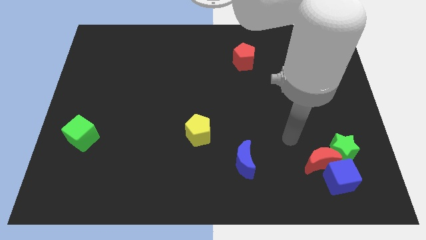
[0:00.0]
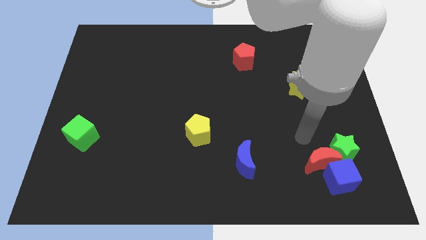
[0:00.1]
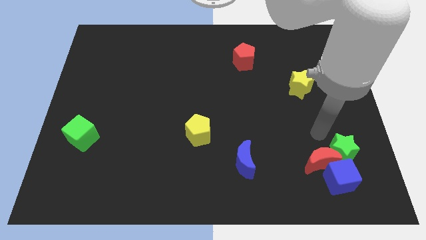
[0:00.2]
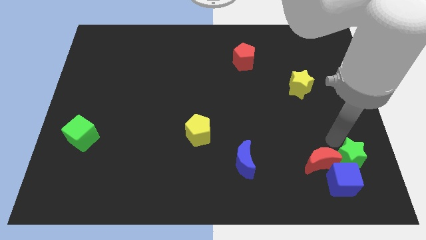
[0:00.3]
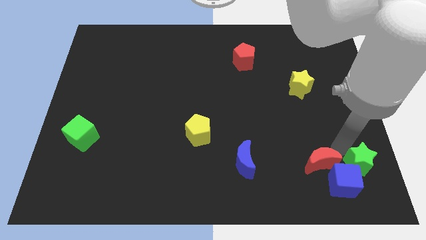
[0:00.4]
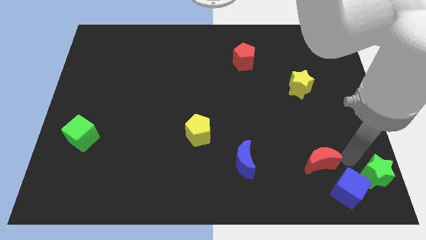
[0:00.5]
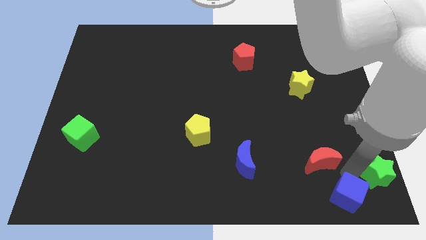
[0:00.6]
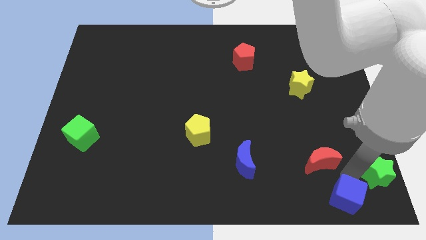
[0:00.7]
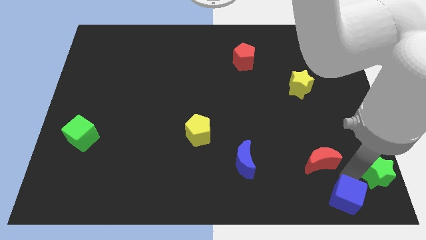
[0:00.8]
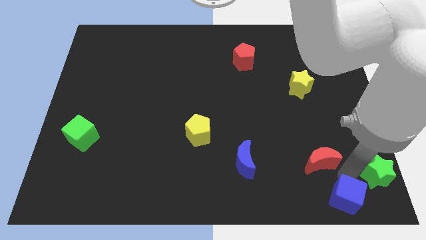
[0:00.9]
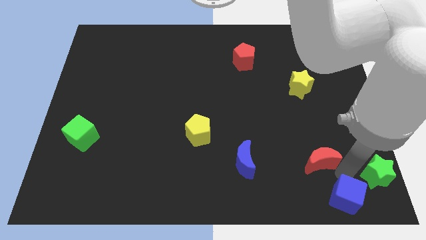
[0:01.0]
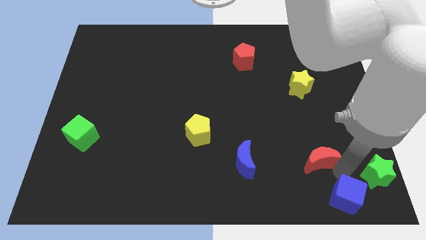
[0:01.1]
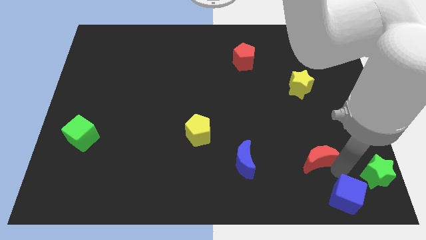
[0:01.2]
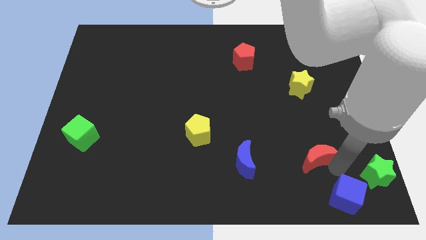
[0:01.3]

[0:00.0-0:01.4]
separate the red moon from the blue cube and green star

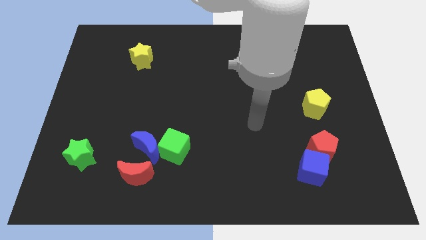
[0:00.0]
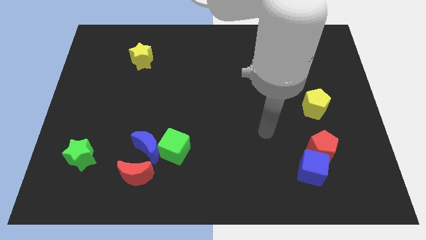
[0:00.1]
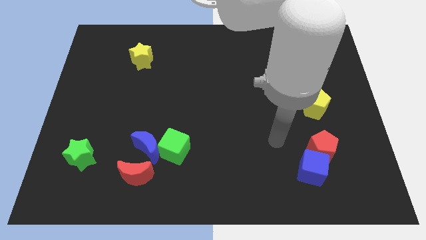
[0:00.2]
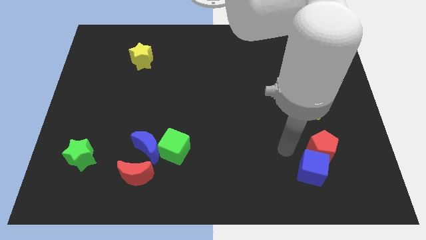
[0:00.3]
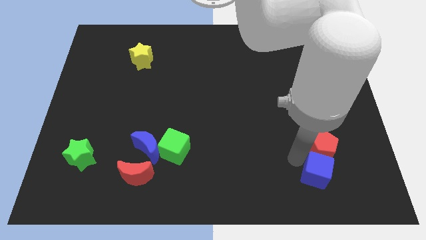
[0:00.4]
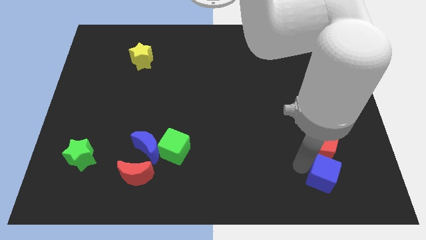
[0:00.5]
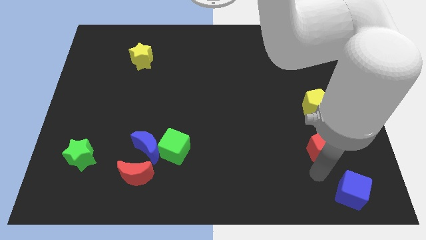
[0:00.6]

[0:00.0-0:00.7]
move the red pentagon away from the blue cube

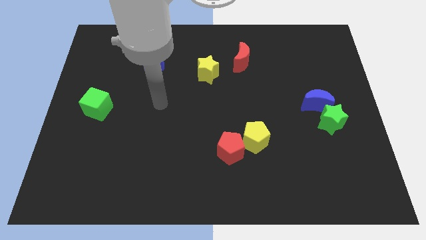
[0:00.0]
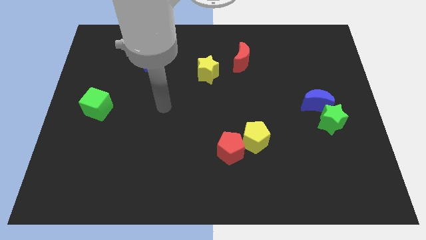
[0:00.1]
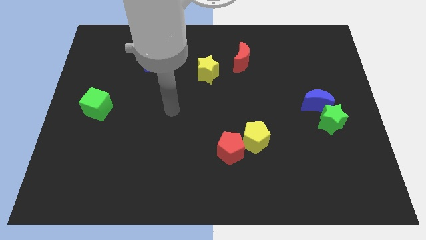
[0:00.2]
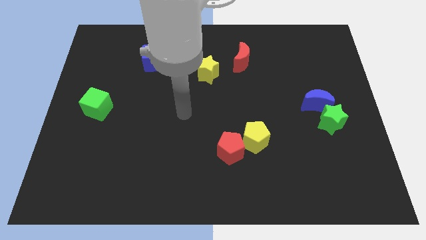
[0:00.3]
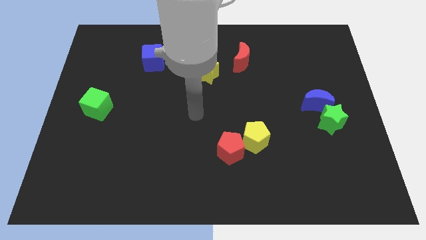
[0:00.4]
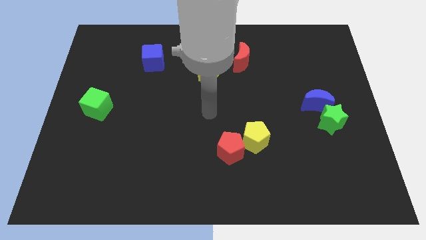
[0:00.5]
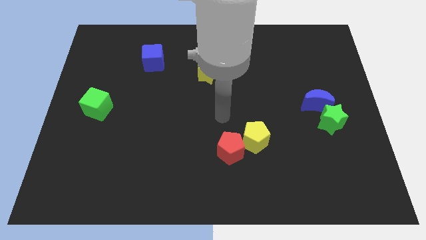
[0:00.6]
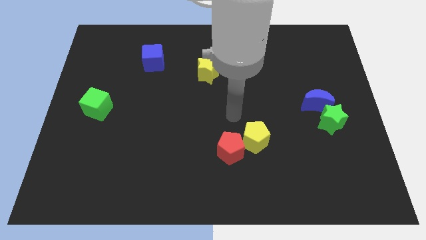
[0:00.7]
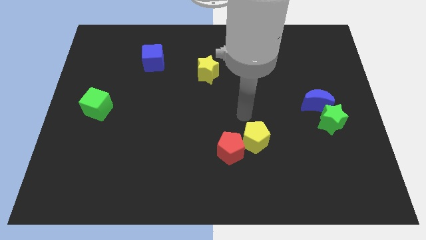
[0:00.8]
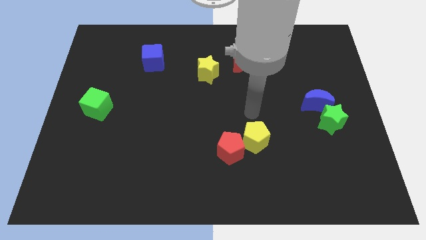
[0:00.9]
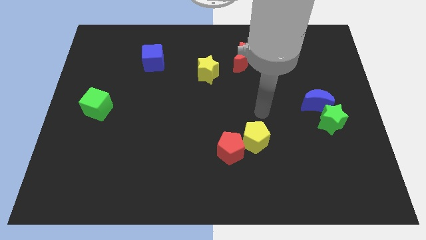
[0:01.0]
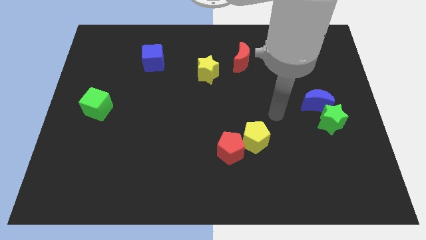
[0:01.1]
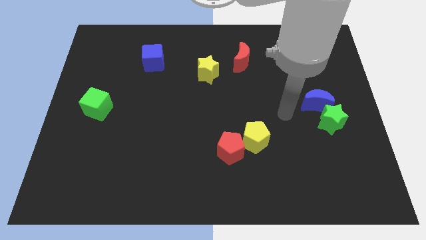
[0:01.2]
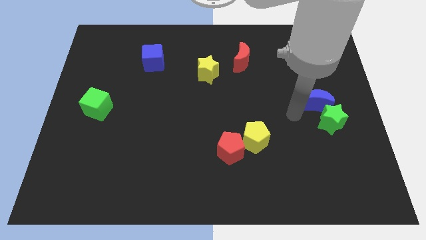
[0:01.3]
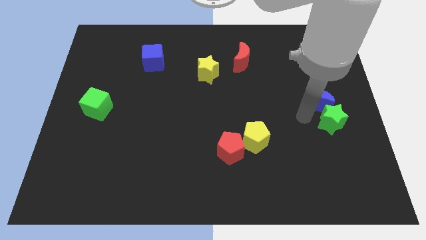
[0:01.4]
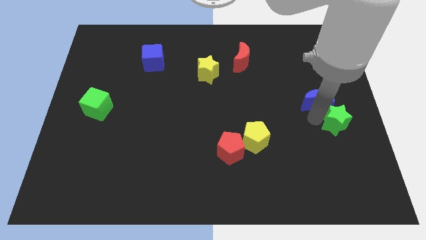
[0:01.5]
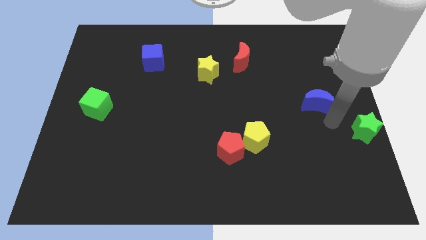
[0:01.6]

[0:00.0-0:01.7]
move the blue moon away from the green star

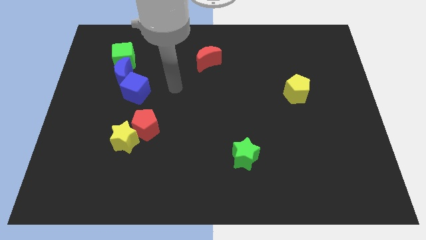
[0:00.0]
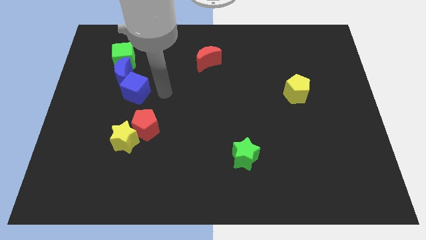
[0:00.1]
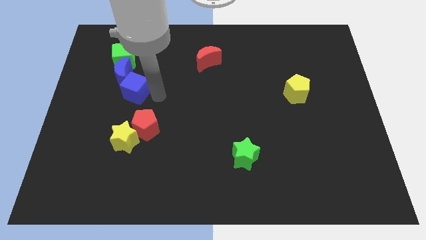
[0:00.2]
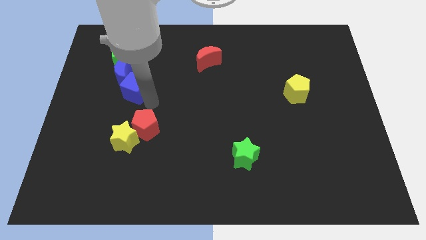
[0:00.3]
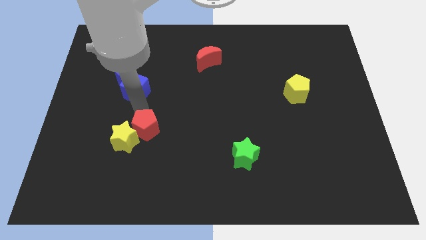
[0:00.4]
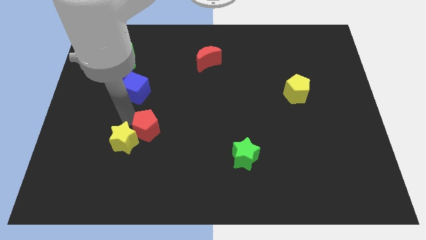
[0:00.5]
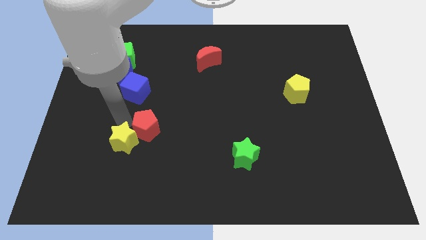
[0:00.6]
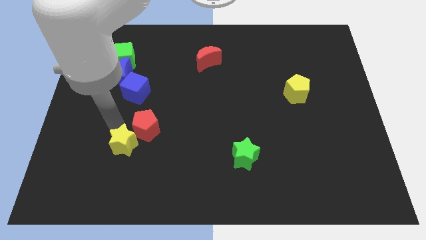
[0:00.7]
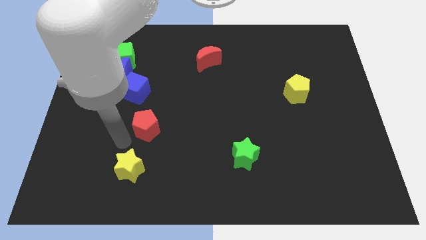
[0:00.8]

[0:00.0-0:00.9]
separate the red pentagon from the yellow star

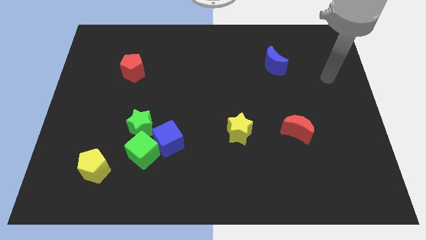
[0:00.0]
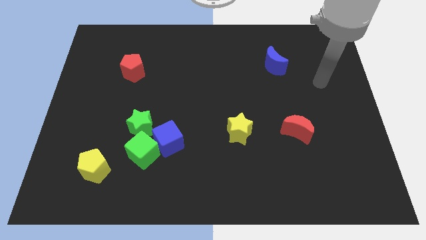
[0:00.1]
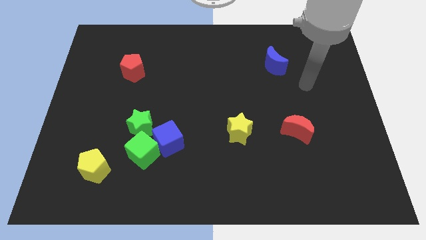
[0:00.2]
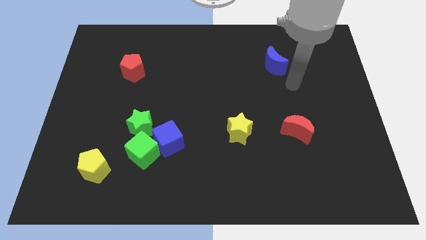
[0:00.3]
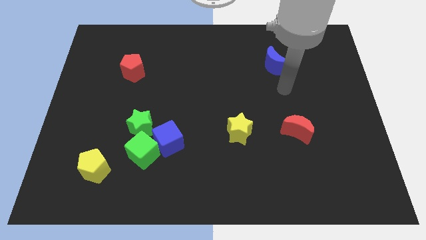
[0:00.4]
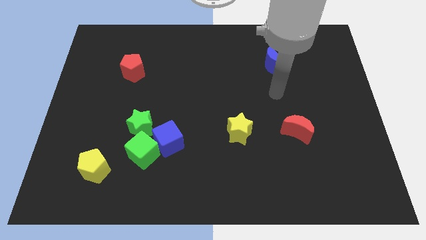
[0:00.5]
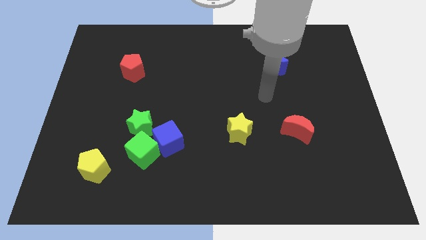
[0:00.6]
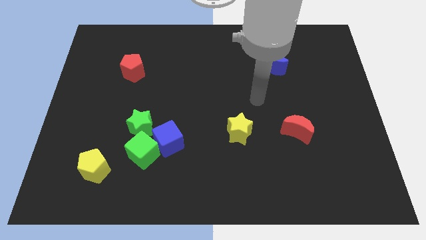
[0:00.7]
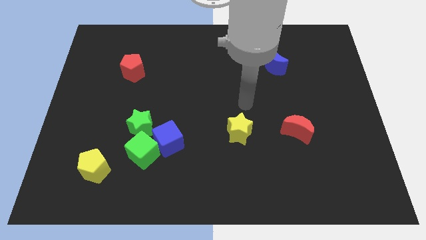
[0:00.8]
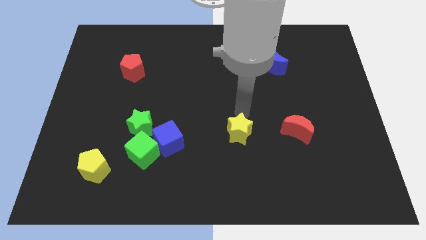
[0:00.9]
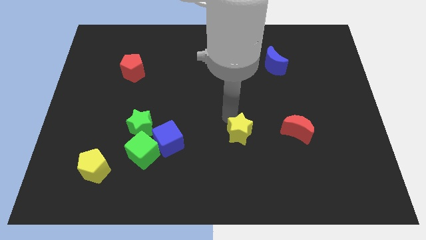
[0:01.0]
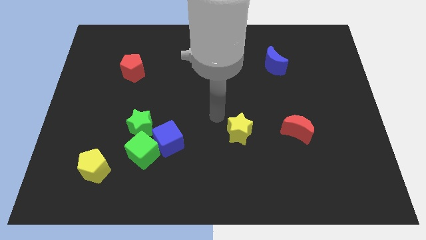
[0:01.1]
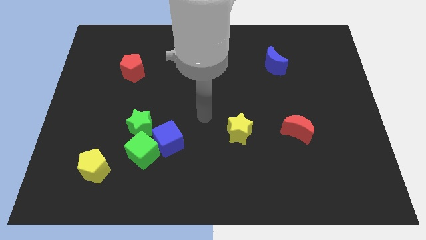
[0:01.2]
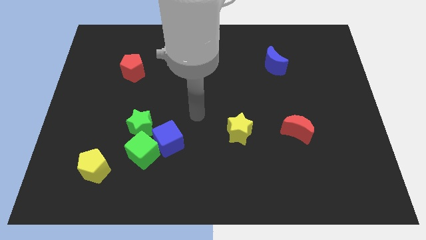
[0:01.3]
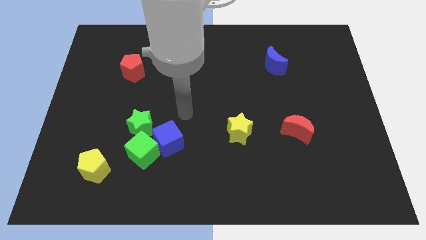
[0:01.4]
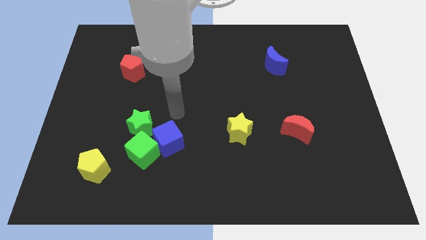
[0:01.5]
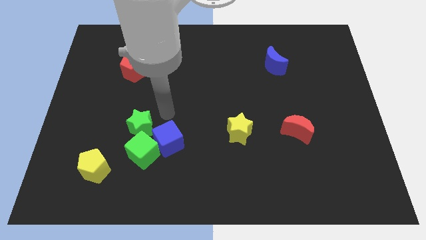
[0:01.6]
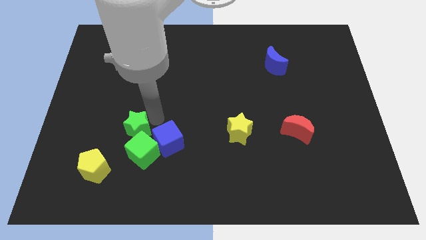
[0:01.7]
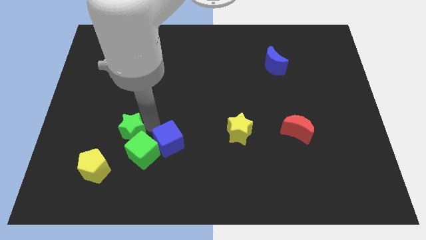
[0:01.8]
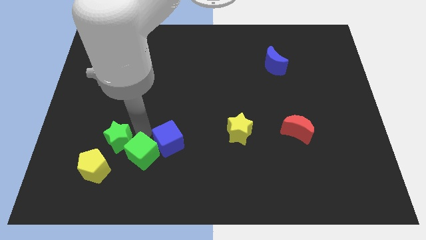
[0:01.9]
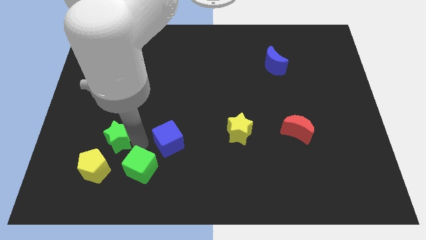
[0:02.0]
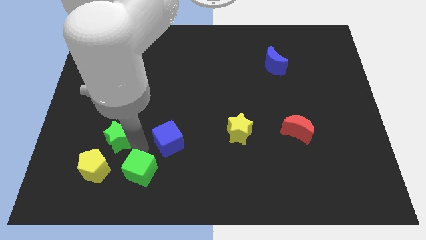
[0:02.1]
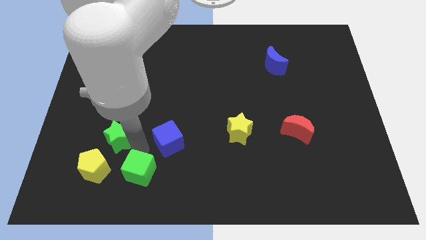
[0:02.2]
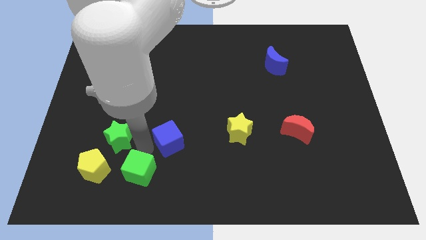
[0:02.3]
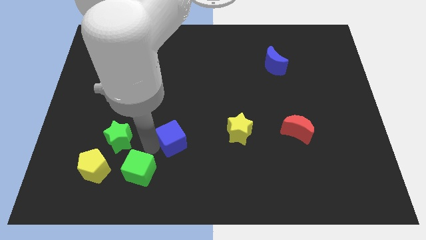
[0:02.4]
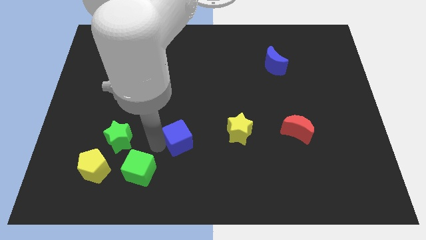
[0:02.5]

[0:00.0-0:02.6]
pull the blue cube apart from the green cube and green star

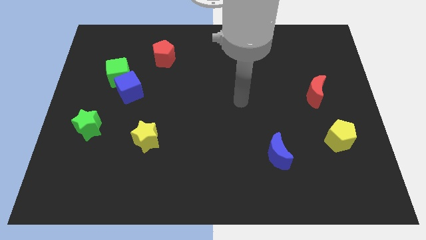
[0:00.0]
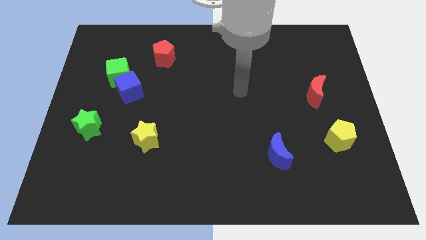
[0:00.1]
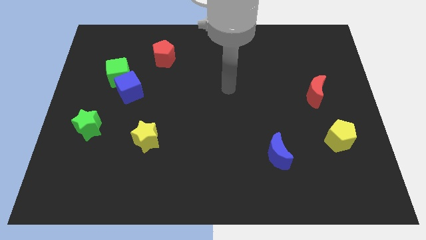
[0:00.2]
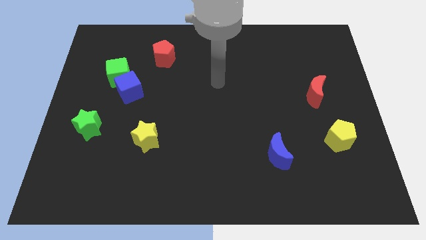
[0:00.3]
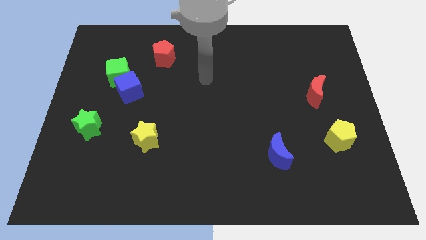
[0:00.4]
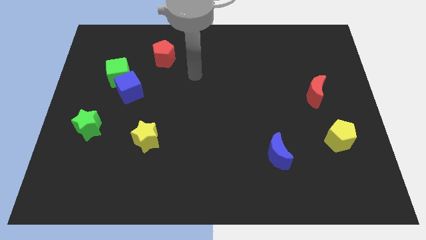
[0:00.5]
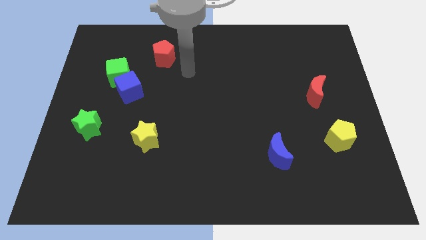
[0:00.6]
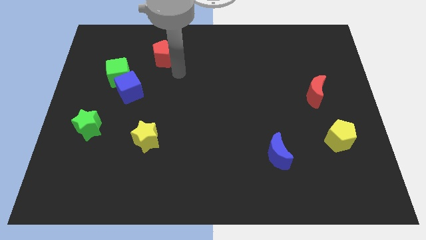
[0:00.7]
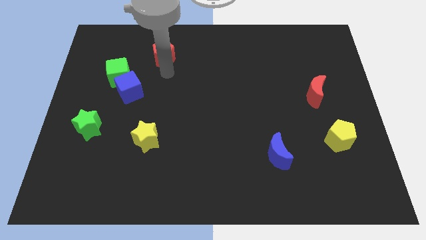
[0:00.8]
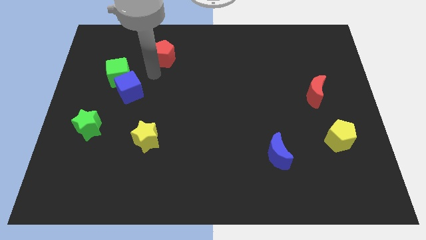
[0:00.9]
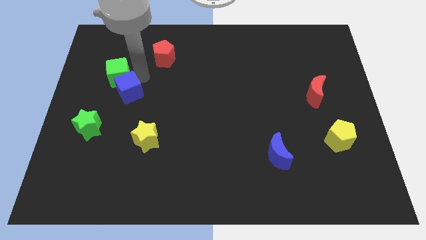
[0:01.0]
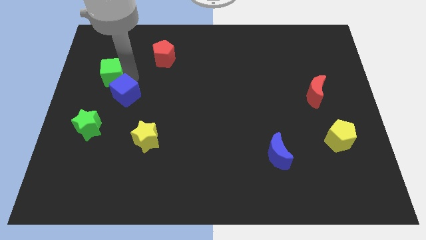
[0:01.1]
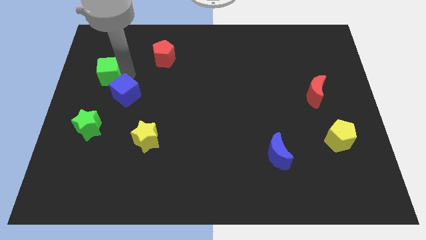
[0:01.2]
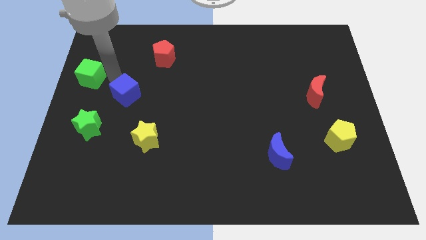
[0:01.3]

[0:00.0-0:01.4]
move the blue cube away from the green cube

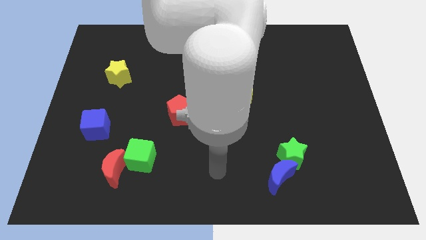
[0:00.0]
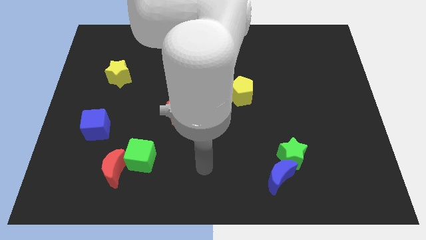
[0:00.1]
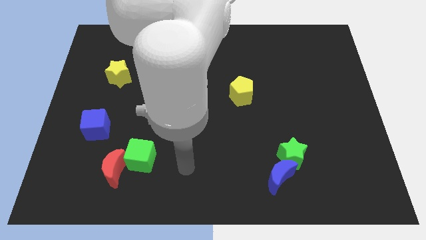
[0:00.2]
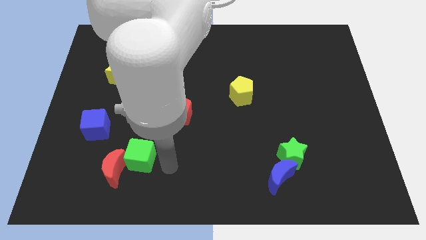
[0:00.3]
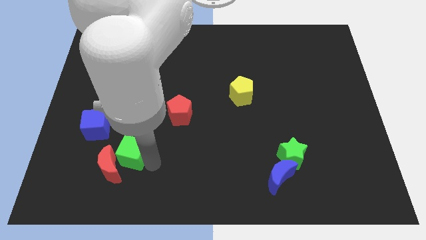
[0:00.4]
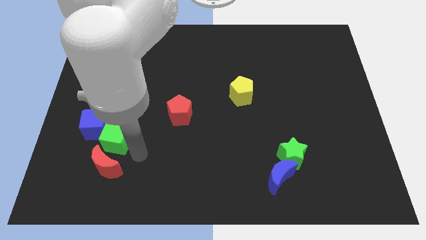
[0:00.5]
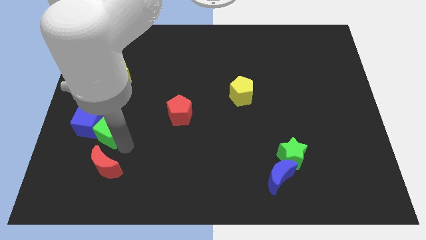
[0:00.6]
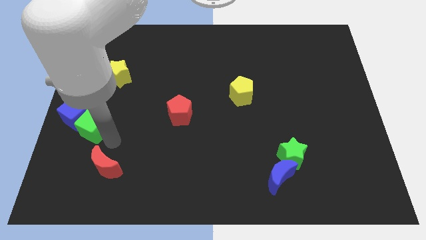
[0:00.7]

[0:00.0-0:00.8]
separate the red moon from the green cube

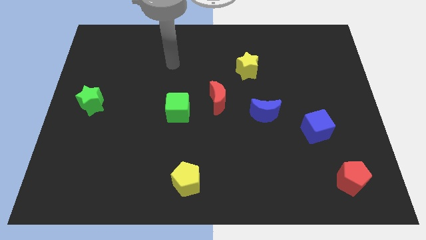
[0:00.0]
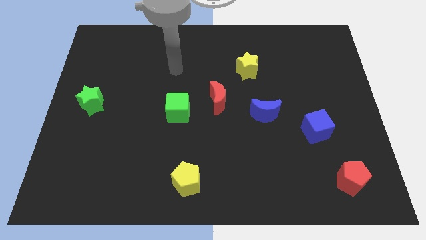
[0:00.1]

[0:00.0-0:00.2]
move the red moon away from the green cube
